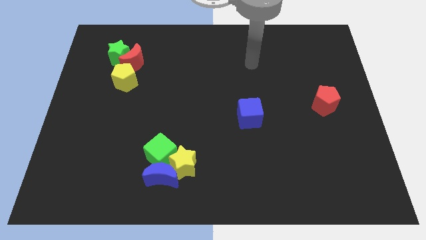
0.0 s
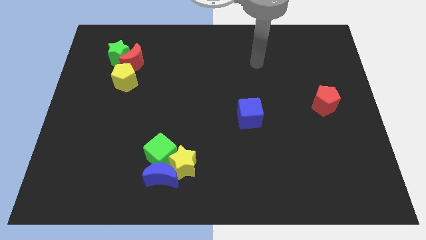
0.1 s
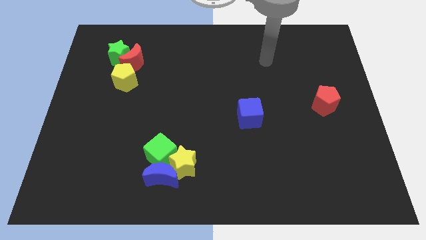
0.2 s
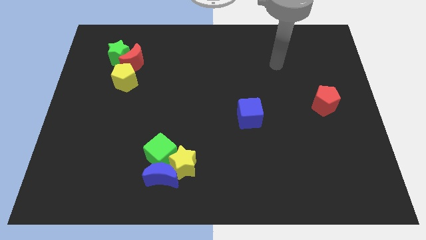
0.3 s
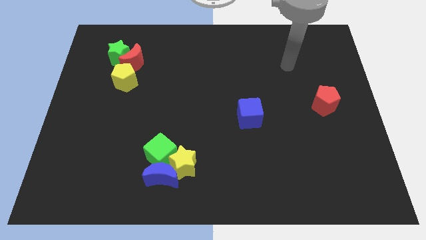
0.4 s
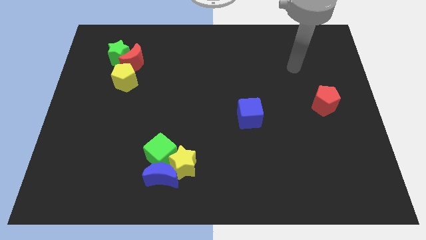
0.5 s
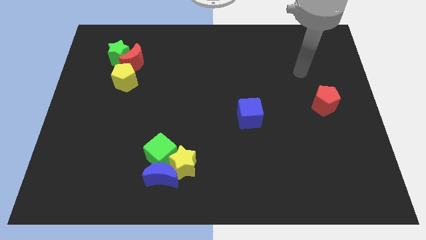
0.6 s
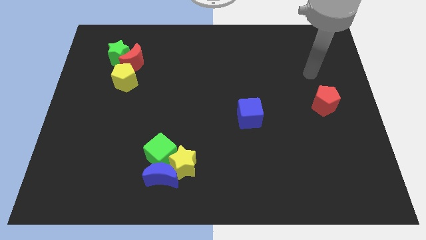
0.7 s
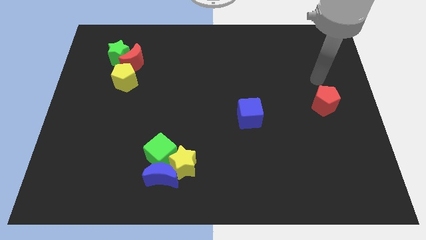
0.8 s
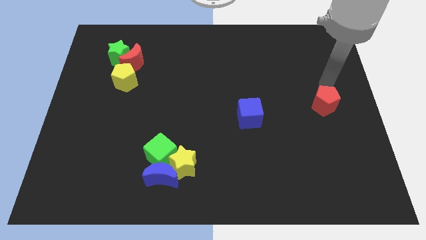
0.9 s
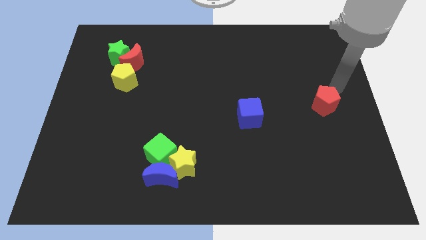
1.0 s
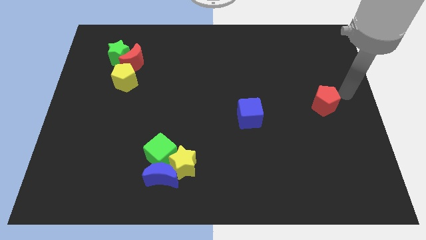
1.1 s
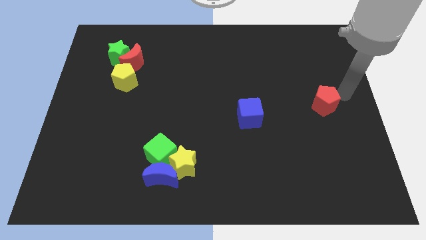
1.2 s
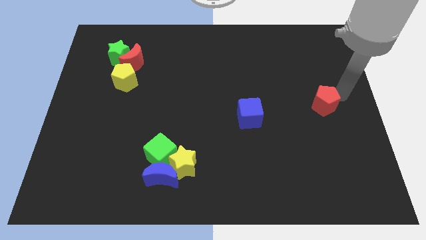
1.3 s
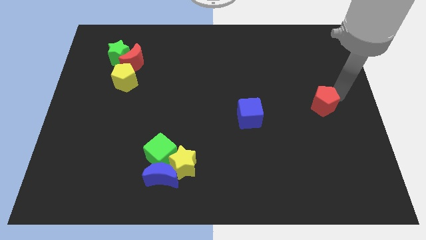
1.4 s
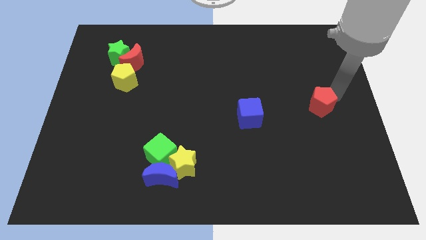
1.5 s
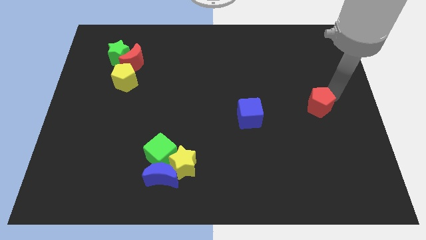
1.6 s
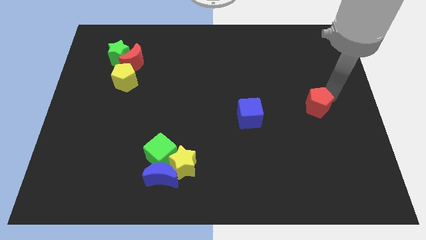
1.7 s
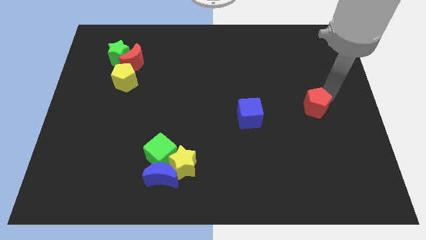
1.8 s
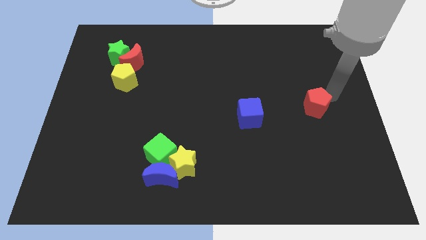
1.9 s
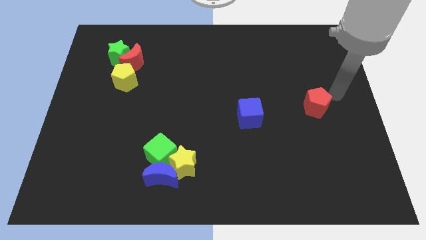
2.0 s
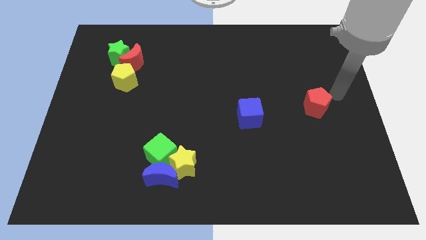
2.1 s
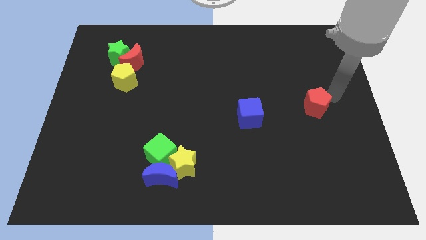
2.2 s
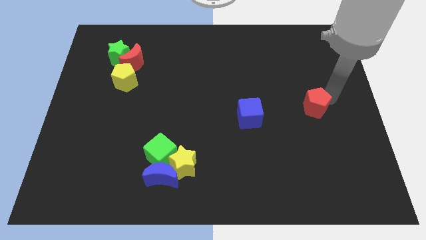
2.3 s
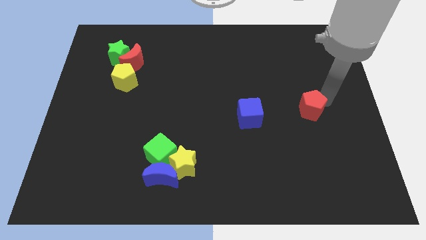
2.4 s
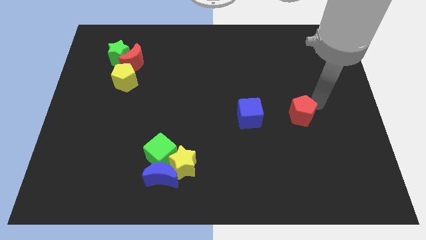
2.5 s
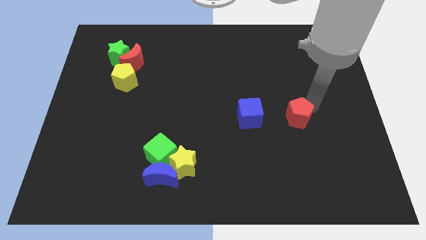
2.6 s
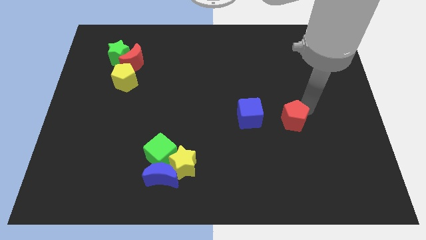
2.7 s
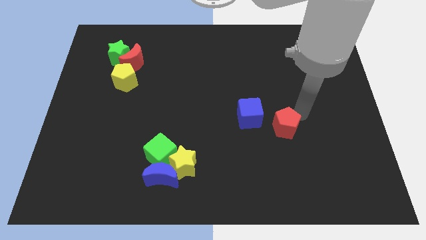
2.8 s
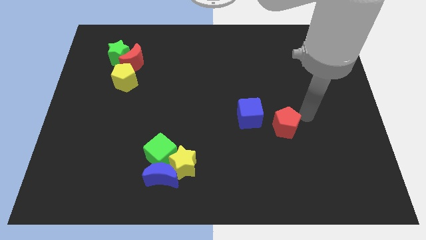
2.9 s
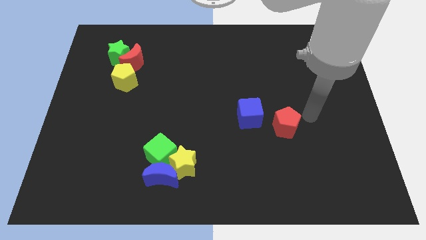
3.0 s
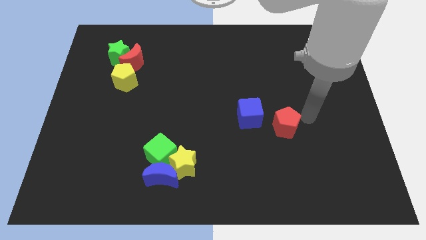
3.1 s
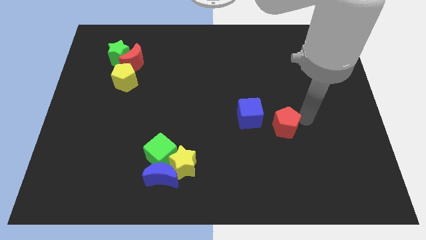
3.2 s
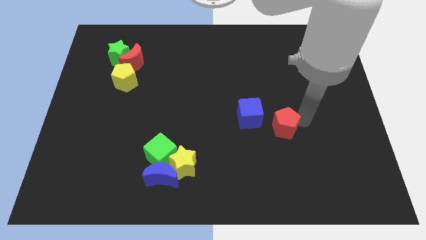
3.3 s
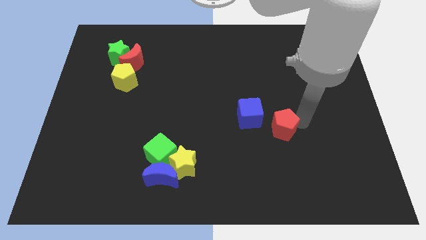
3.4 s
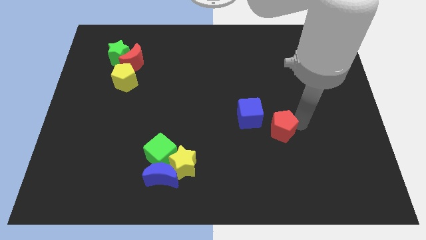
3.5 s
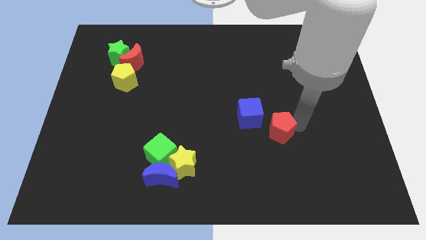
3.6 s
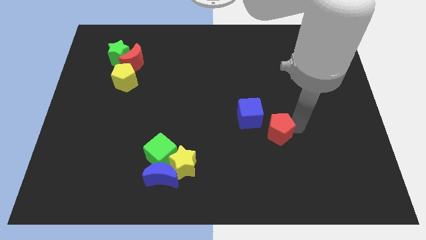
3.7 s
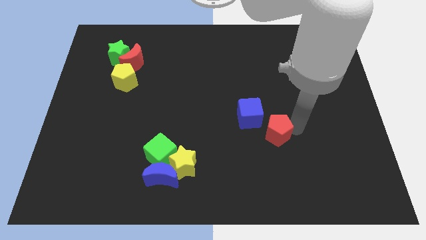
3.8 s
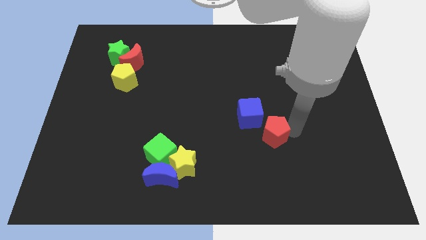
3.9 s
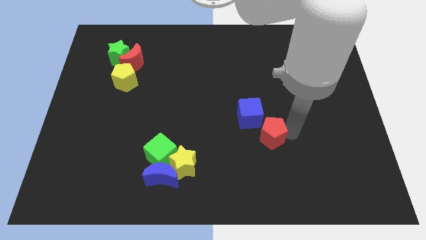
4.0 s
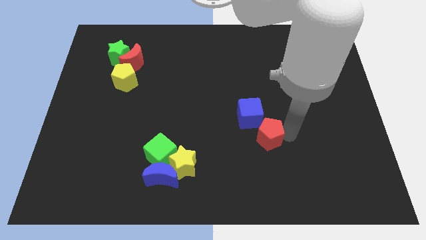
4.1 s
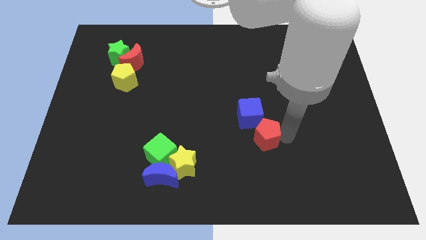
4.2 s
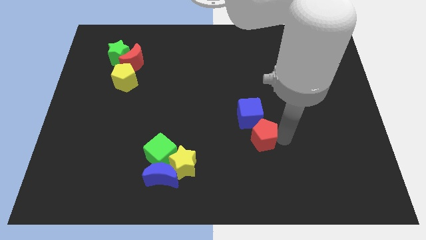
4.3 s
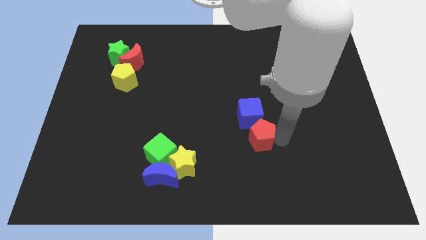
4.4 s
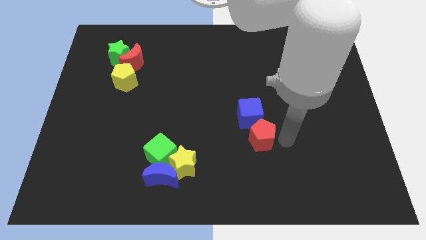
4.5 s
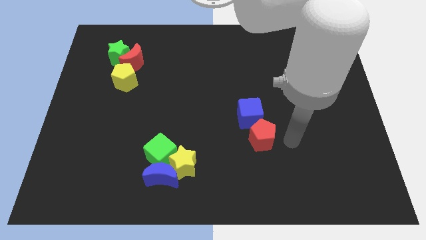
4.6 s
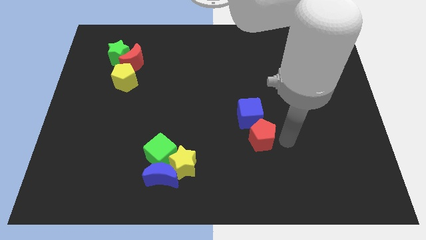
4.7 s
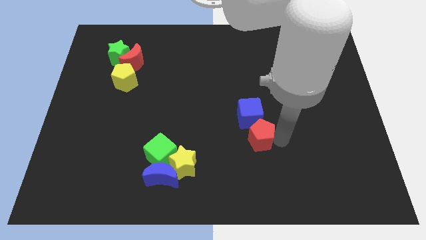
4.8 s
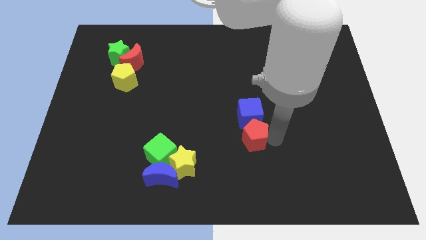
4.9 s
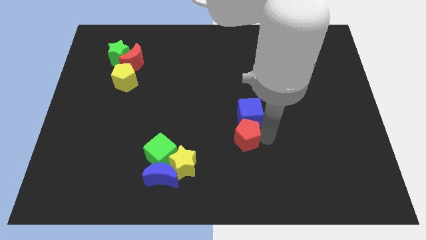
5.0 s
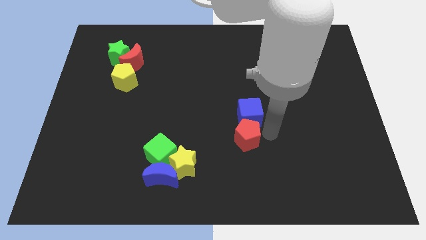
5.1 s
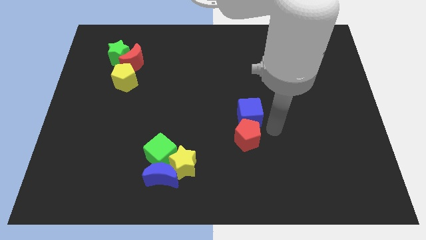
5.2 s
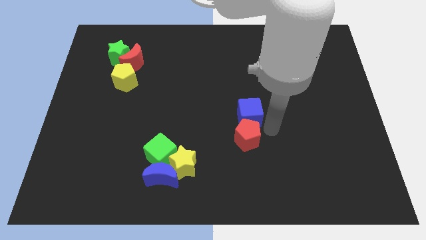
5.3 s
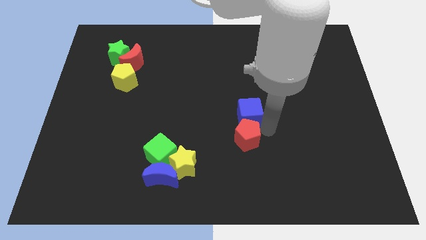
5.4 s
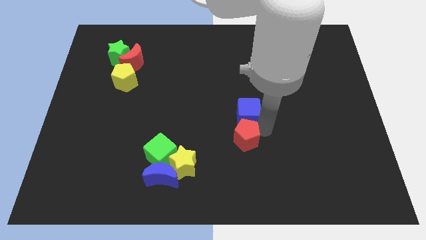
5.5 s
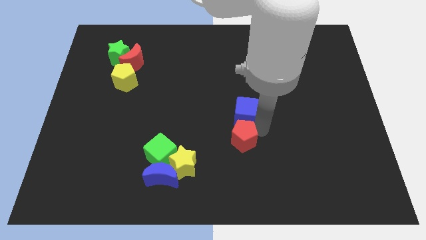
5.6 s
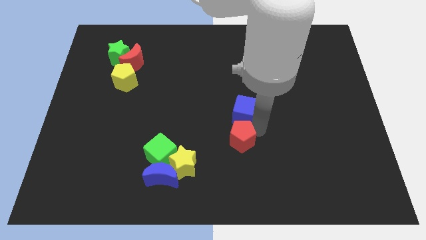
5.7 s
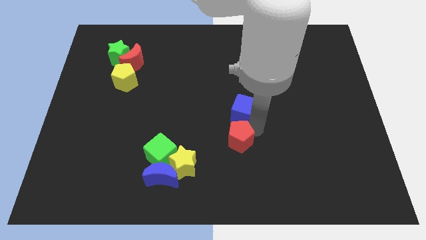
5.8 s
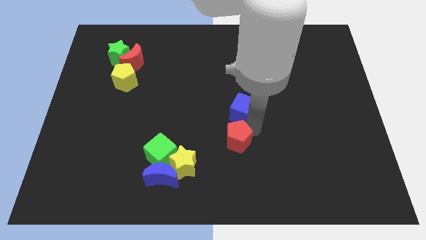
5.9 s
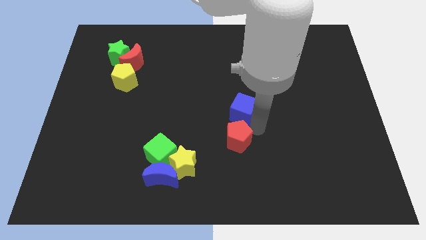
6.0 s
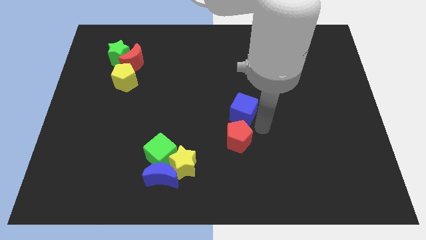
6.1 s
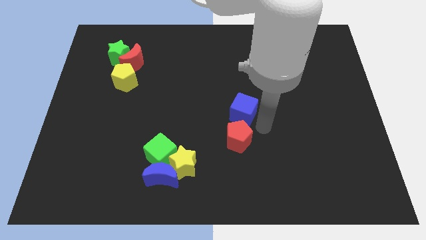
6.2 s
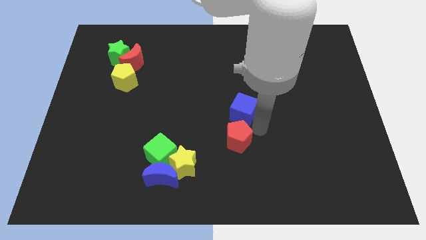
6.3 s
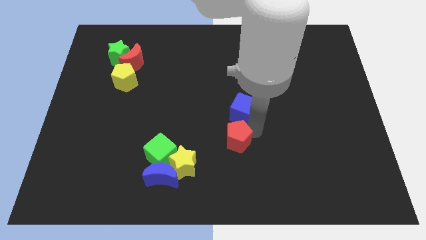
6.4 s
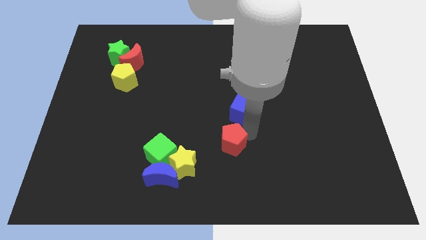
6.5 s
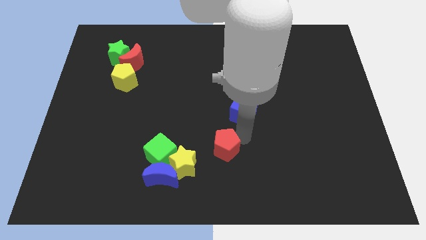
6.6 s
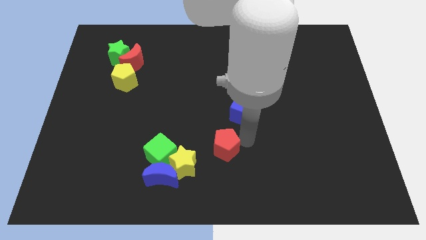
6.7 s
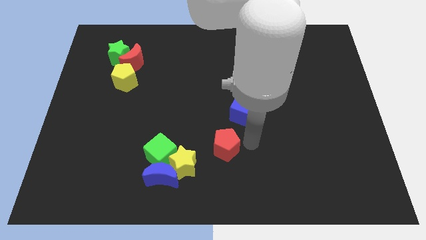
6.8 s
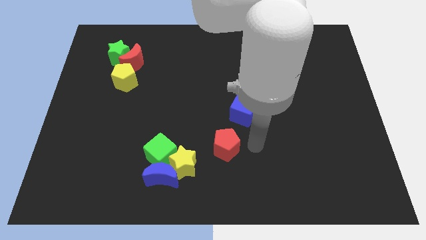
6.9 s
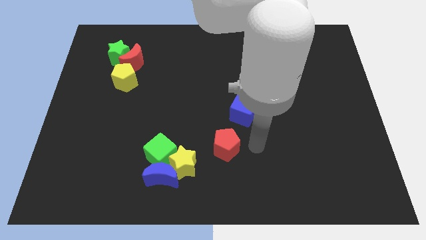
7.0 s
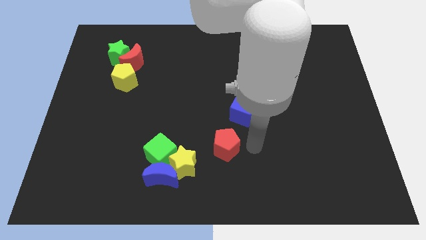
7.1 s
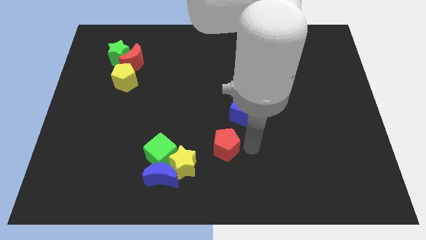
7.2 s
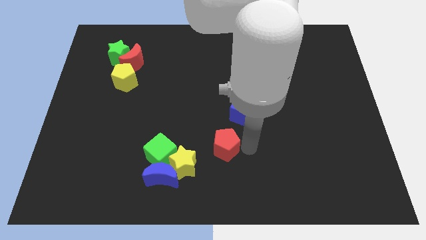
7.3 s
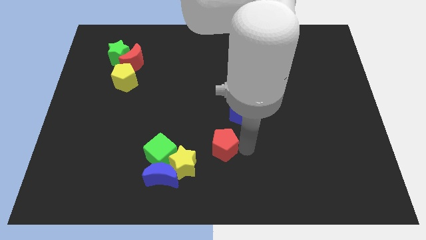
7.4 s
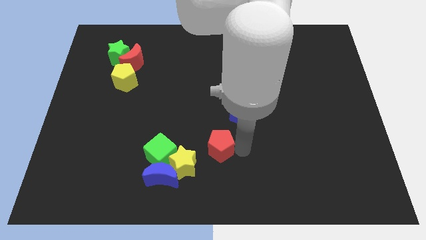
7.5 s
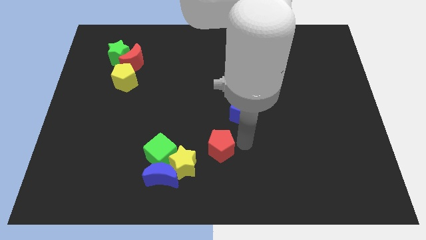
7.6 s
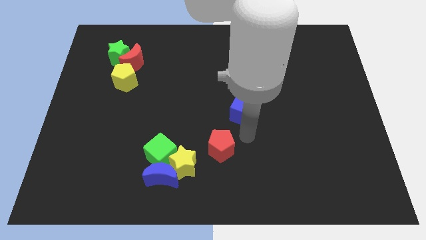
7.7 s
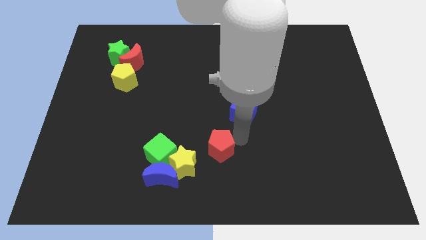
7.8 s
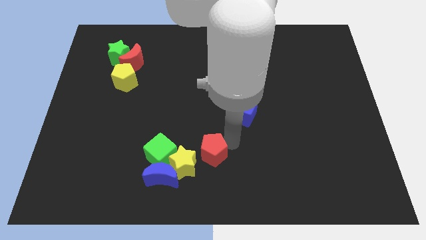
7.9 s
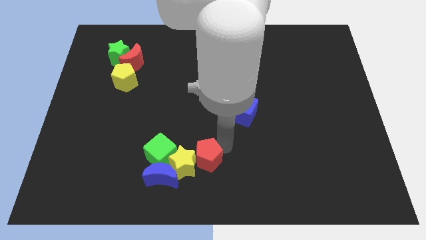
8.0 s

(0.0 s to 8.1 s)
push the red pentagon to the yellow star
